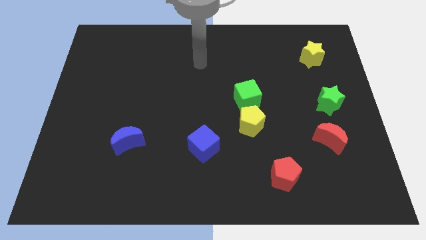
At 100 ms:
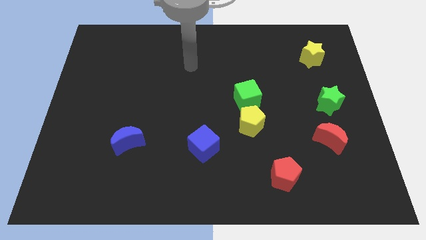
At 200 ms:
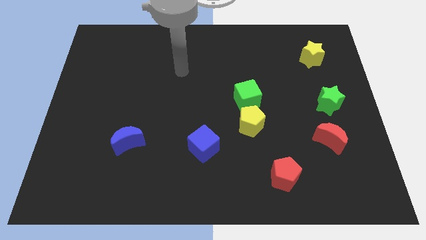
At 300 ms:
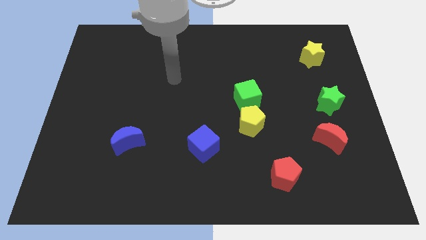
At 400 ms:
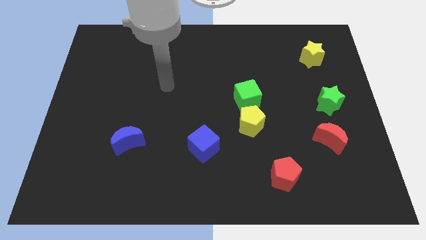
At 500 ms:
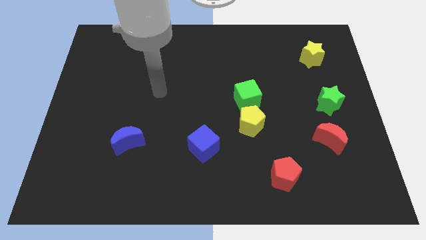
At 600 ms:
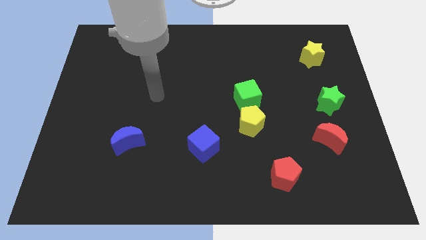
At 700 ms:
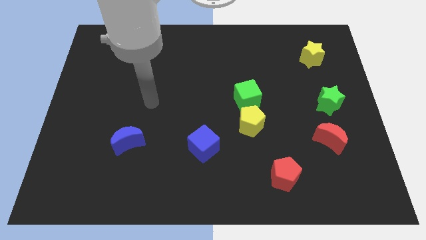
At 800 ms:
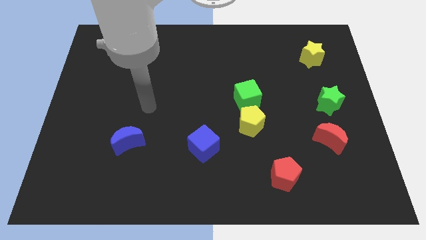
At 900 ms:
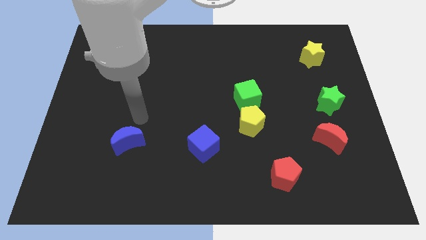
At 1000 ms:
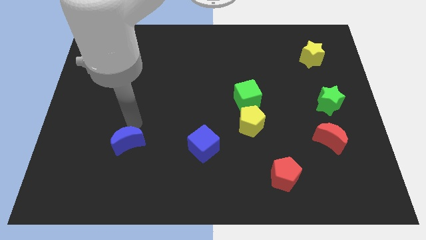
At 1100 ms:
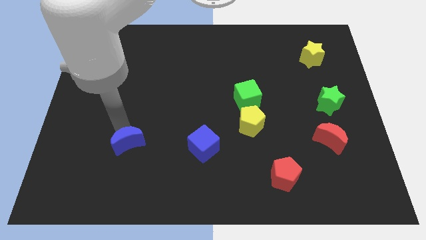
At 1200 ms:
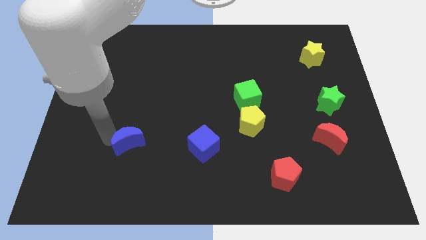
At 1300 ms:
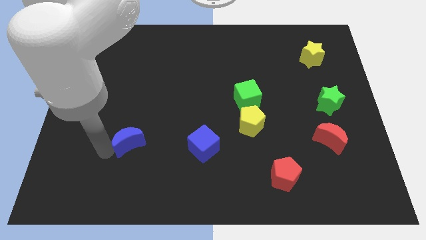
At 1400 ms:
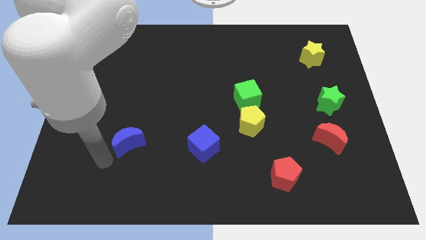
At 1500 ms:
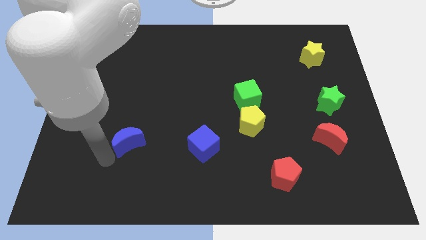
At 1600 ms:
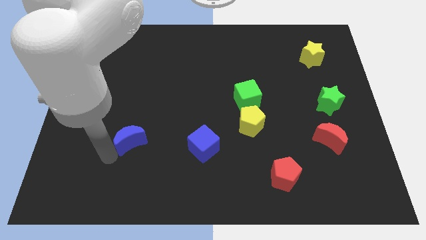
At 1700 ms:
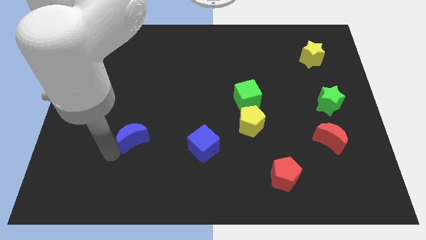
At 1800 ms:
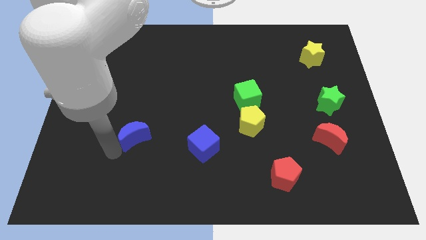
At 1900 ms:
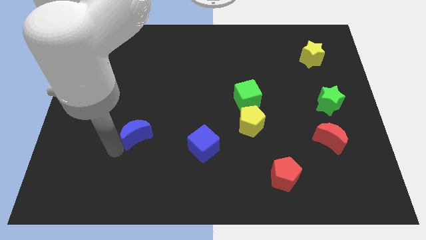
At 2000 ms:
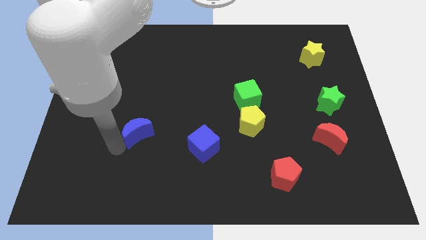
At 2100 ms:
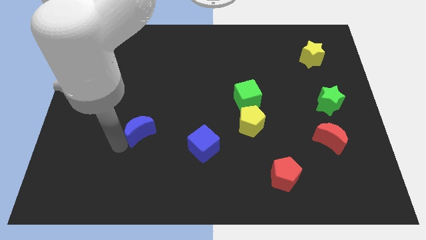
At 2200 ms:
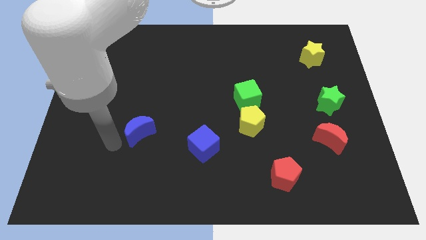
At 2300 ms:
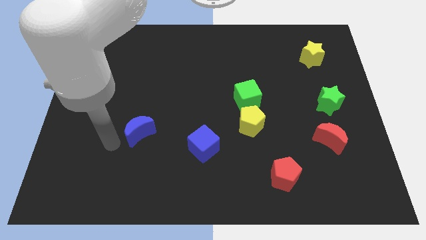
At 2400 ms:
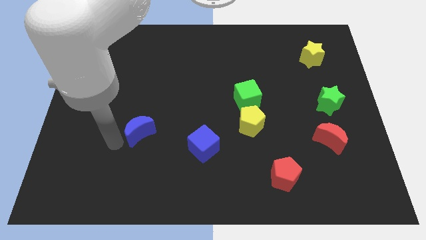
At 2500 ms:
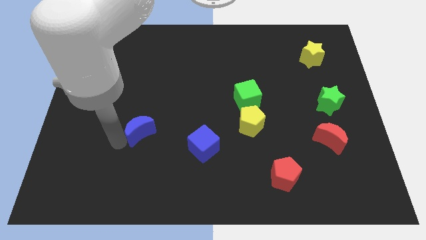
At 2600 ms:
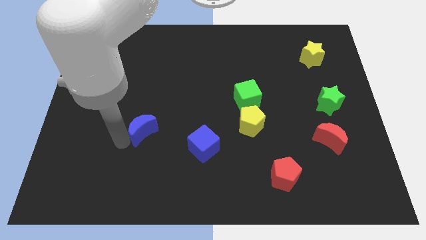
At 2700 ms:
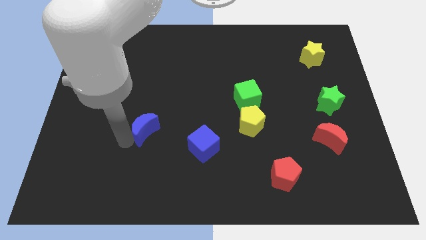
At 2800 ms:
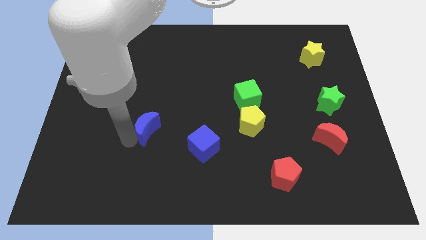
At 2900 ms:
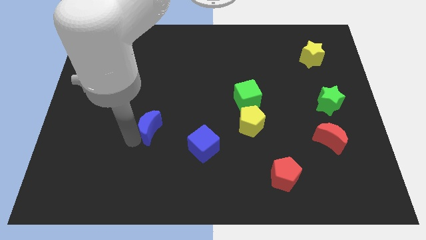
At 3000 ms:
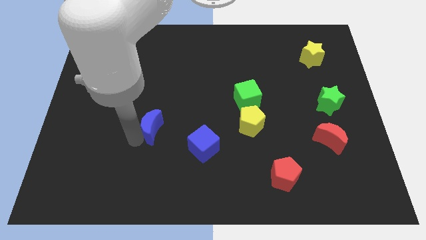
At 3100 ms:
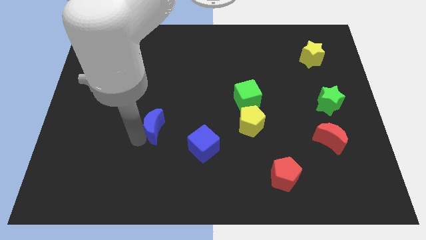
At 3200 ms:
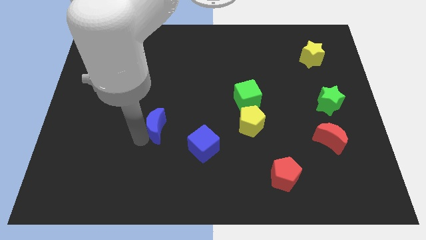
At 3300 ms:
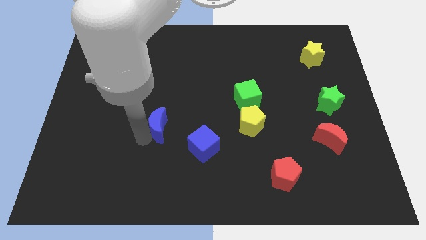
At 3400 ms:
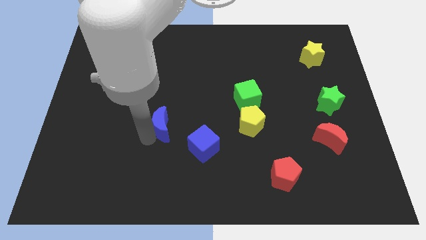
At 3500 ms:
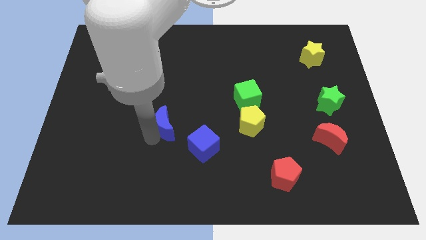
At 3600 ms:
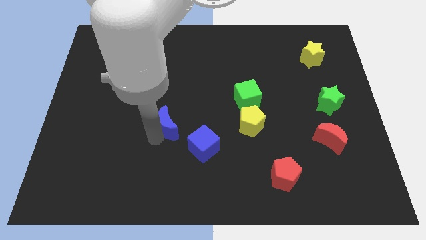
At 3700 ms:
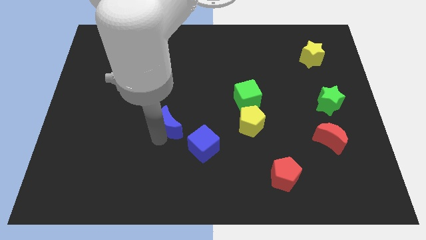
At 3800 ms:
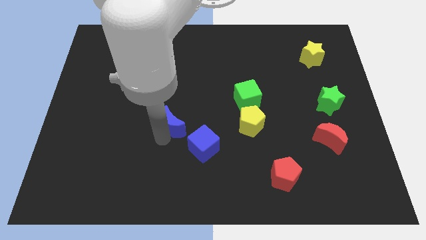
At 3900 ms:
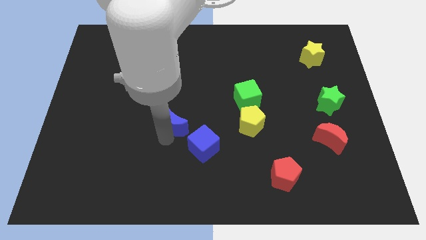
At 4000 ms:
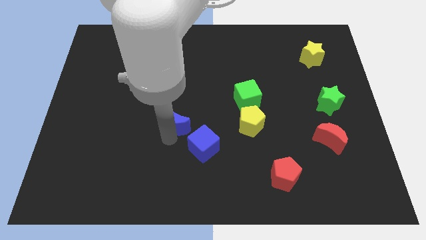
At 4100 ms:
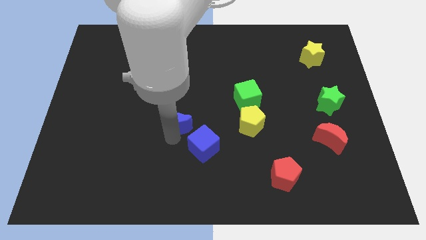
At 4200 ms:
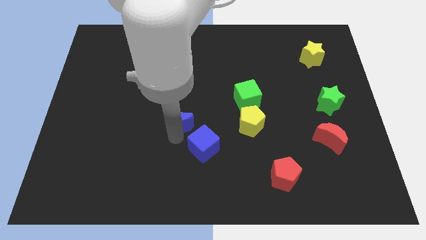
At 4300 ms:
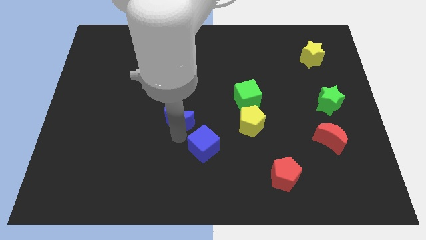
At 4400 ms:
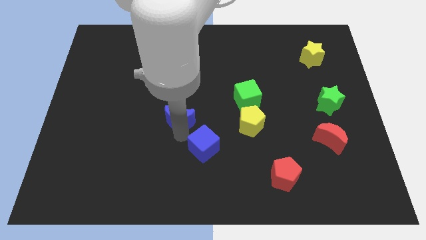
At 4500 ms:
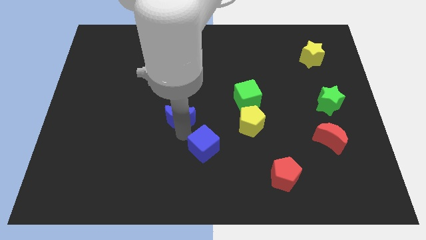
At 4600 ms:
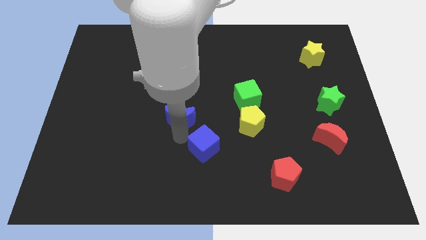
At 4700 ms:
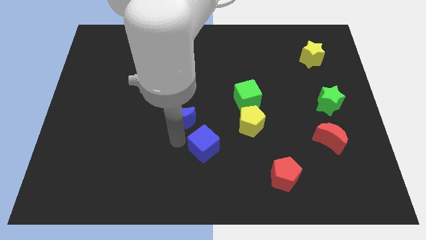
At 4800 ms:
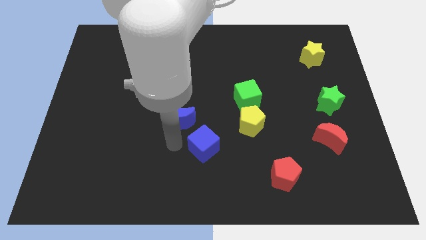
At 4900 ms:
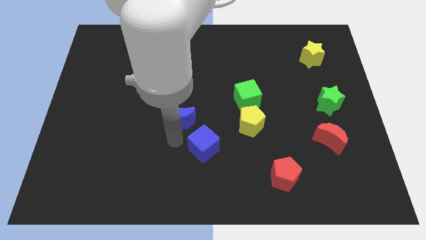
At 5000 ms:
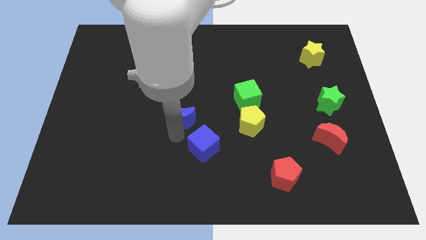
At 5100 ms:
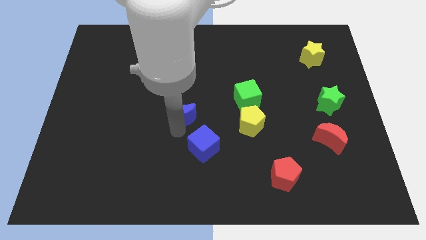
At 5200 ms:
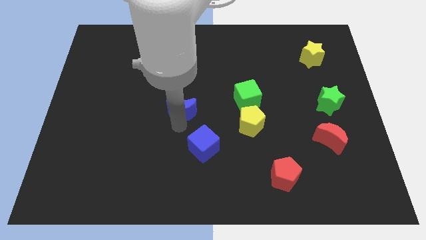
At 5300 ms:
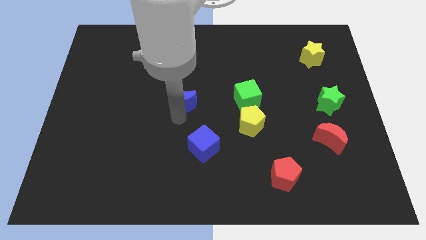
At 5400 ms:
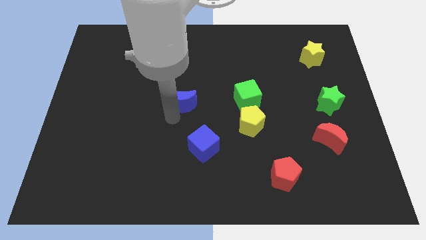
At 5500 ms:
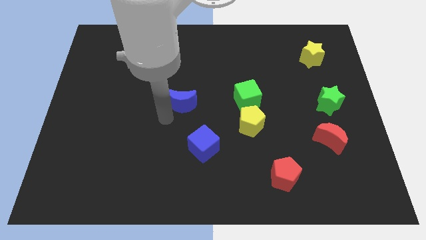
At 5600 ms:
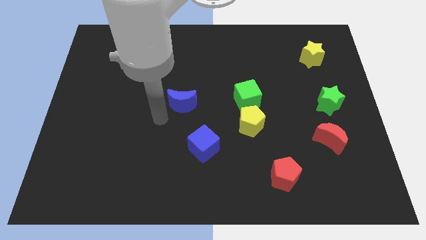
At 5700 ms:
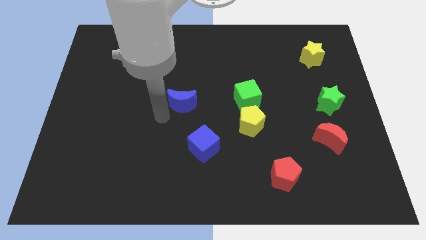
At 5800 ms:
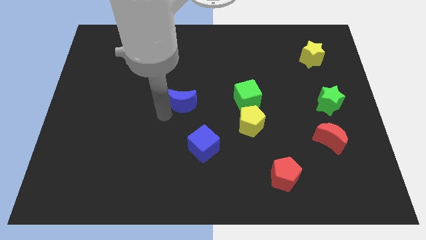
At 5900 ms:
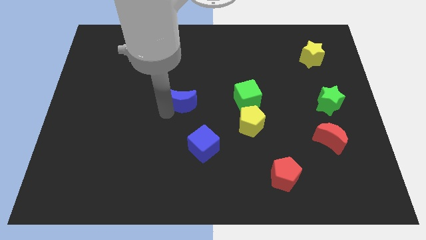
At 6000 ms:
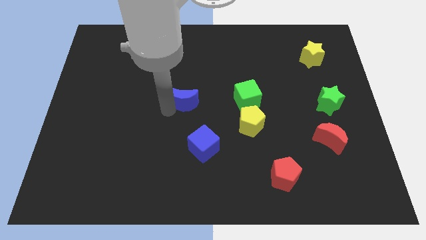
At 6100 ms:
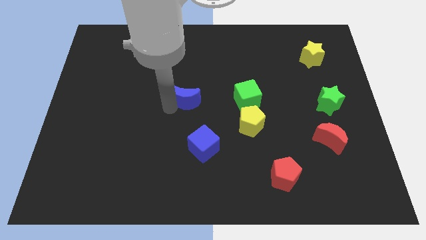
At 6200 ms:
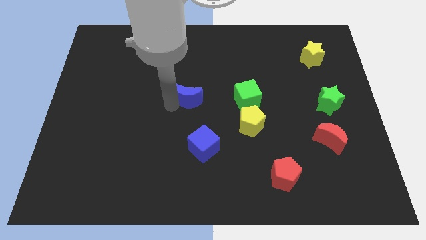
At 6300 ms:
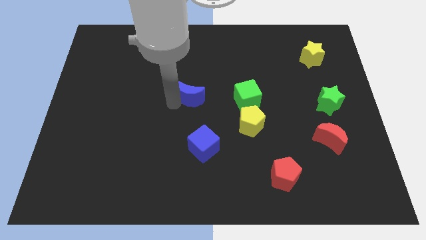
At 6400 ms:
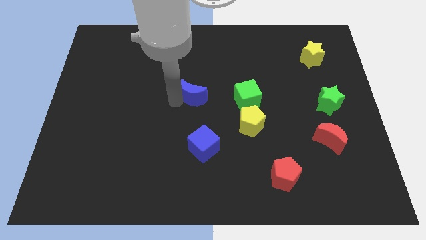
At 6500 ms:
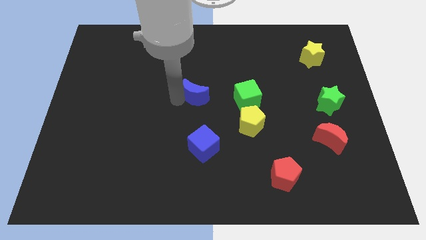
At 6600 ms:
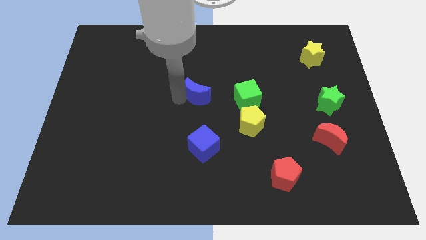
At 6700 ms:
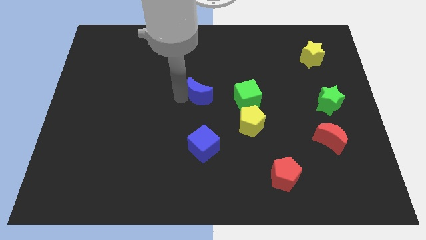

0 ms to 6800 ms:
slide the blue moon upwards and right diagonally

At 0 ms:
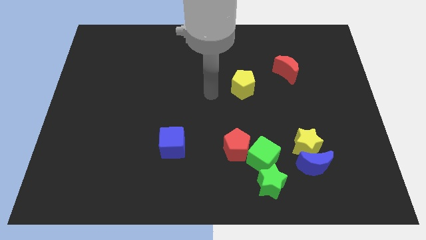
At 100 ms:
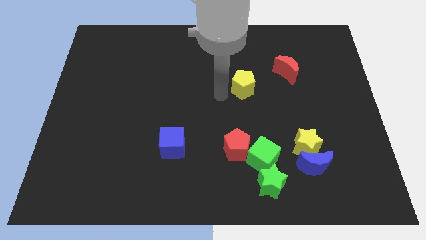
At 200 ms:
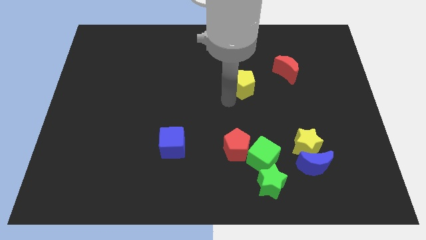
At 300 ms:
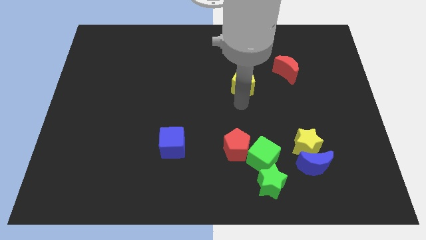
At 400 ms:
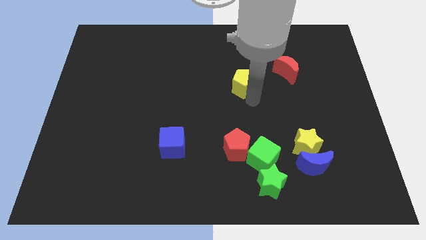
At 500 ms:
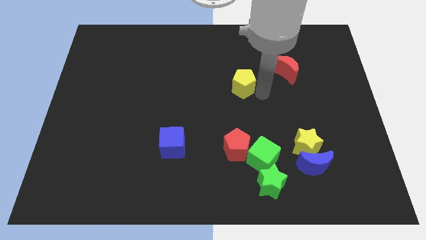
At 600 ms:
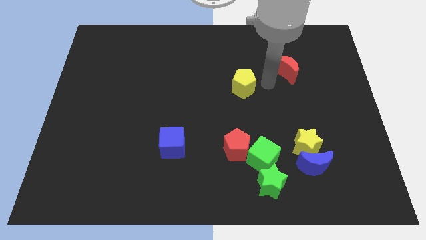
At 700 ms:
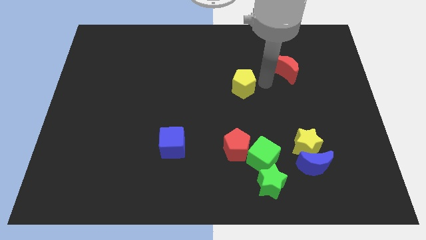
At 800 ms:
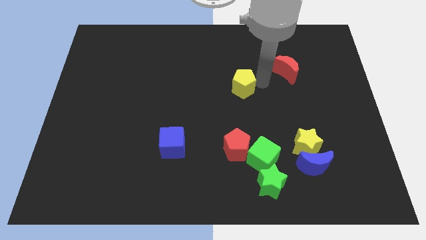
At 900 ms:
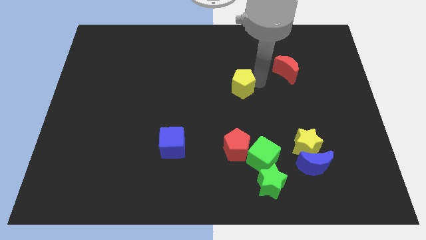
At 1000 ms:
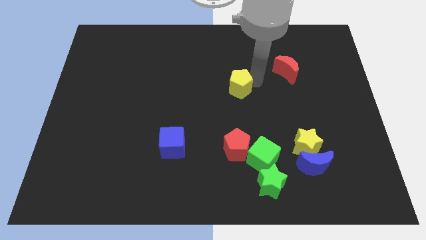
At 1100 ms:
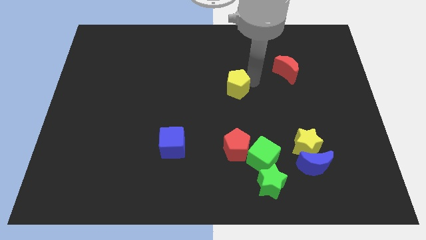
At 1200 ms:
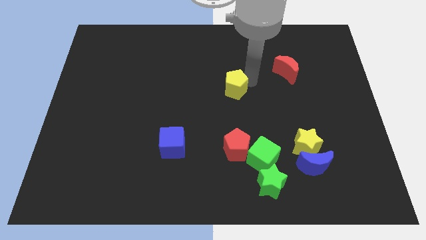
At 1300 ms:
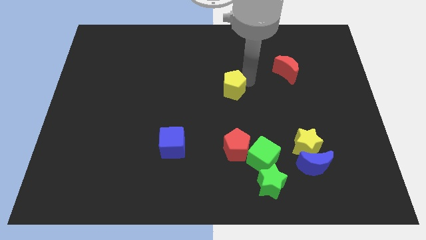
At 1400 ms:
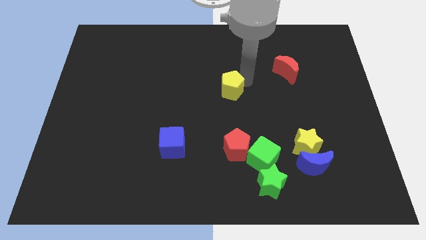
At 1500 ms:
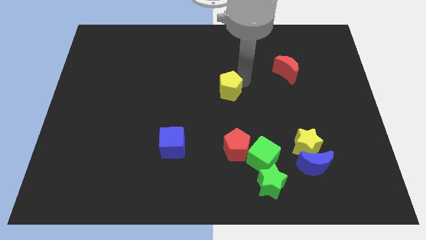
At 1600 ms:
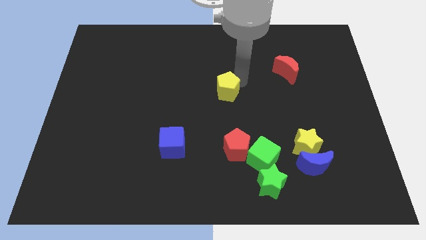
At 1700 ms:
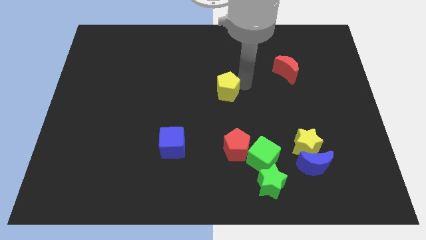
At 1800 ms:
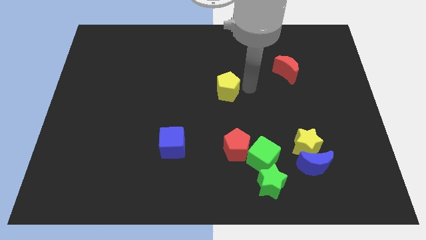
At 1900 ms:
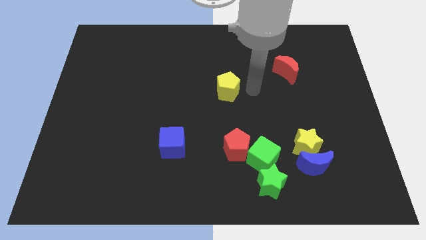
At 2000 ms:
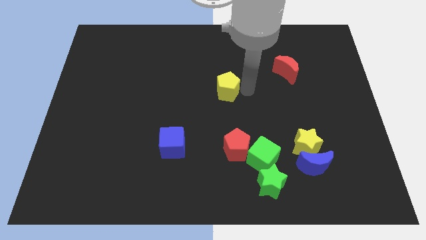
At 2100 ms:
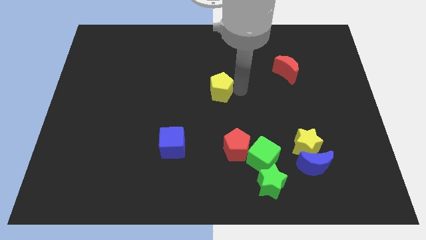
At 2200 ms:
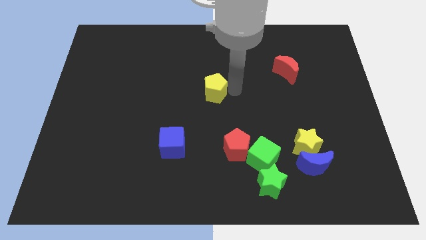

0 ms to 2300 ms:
slide the yellow pentagon to the left a bit
